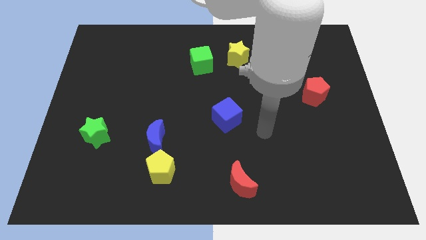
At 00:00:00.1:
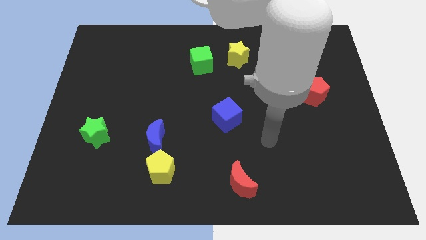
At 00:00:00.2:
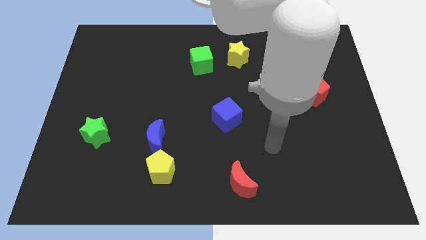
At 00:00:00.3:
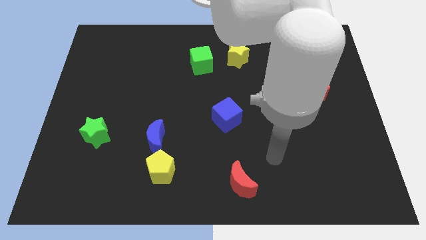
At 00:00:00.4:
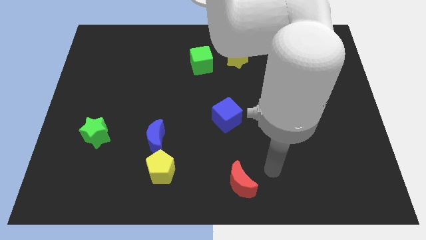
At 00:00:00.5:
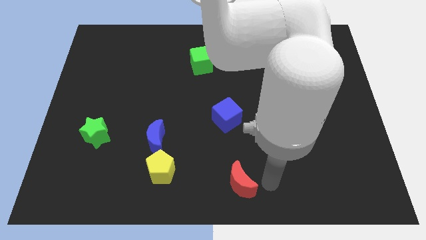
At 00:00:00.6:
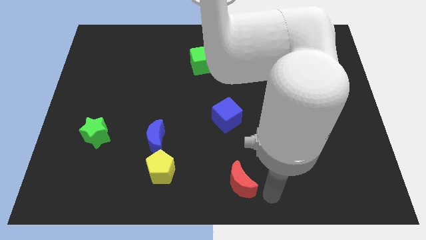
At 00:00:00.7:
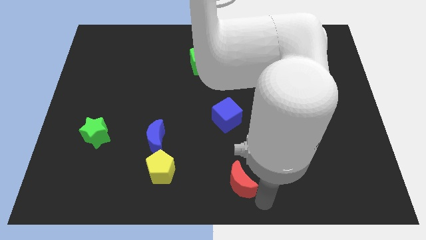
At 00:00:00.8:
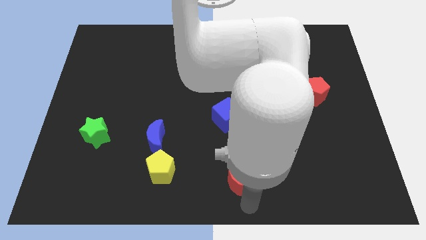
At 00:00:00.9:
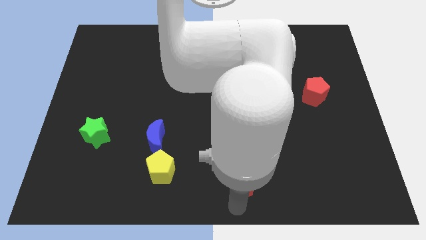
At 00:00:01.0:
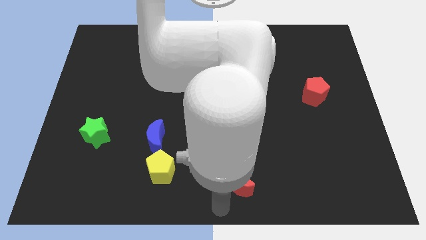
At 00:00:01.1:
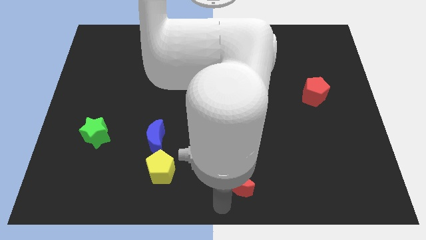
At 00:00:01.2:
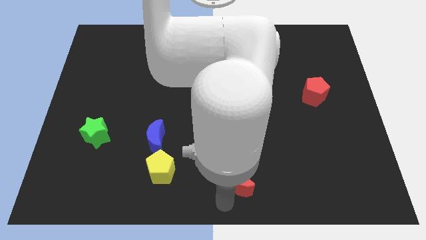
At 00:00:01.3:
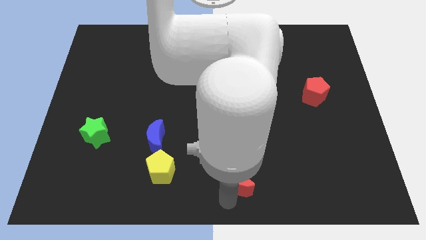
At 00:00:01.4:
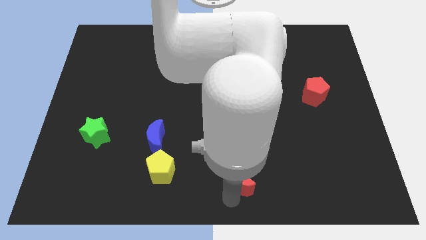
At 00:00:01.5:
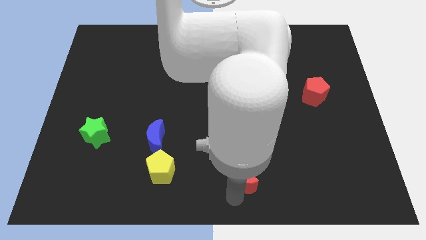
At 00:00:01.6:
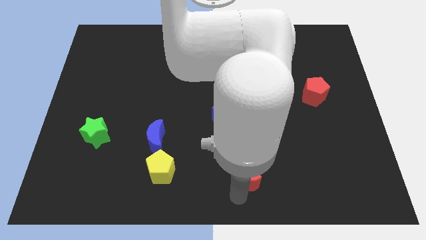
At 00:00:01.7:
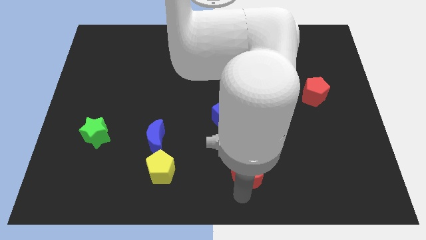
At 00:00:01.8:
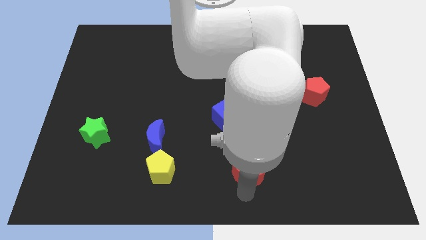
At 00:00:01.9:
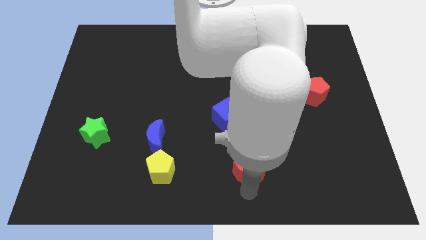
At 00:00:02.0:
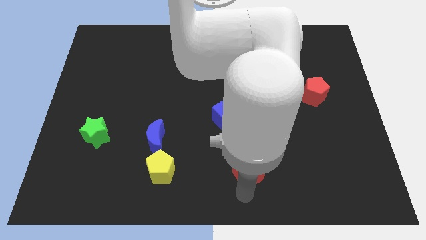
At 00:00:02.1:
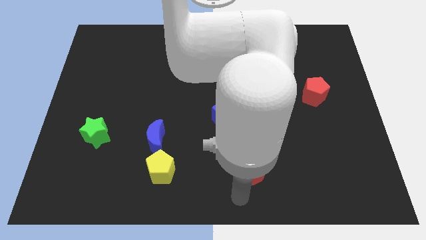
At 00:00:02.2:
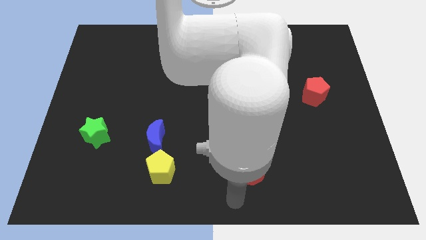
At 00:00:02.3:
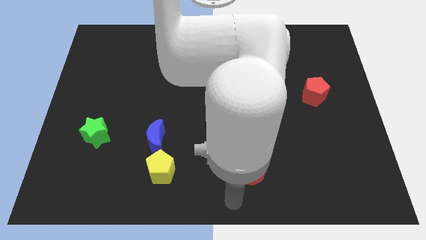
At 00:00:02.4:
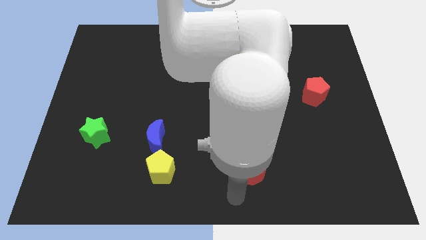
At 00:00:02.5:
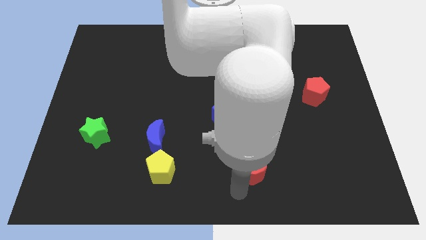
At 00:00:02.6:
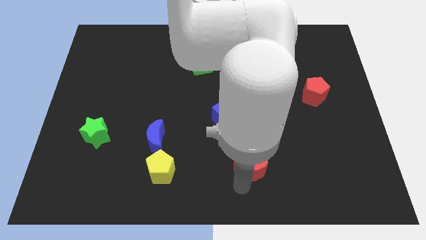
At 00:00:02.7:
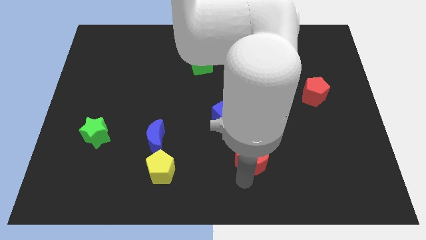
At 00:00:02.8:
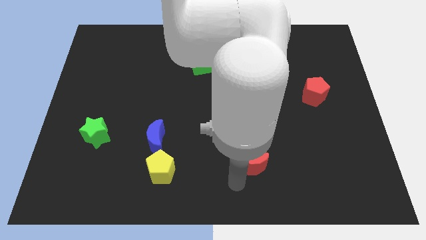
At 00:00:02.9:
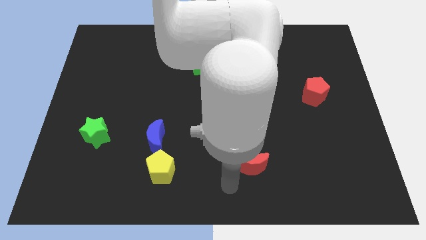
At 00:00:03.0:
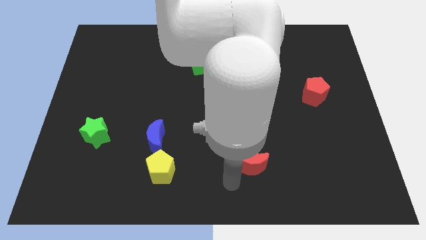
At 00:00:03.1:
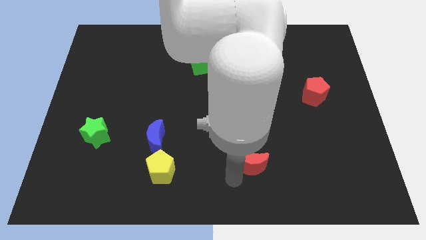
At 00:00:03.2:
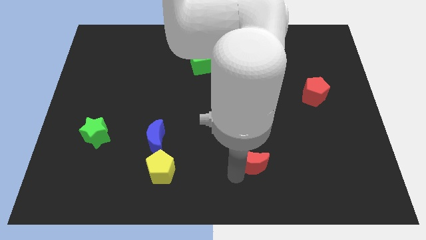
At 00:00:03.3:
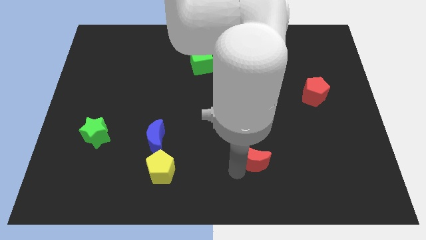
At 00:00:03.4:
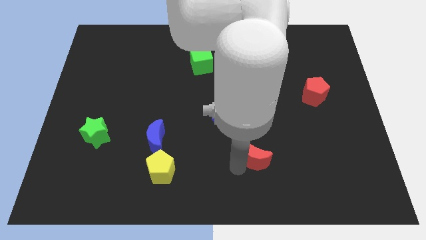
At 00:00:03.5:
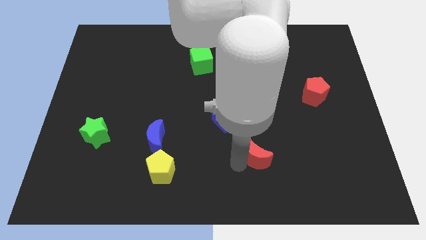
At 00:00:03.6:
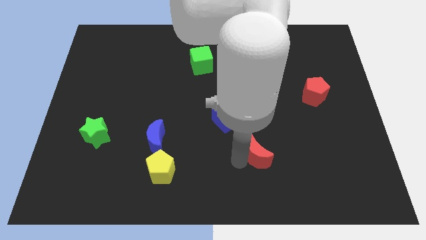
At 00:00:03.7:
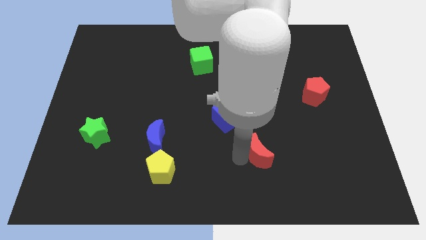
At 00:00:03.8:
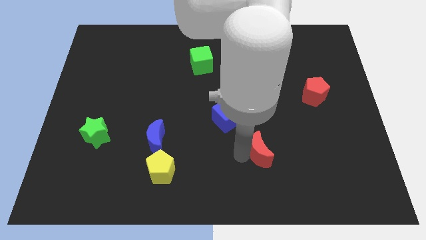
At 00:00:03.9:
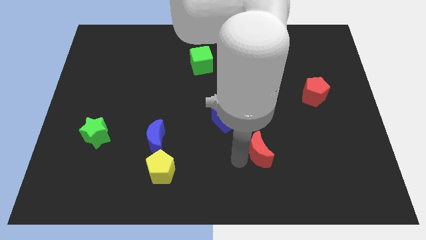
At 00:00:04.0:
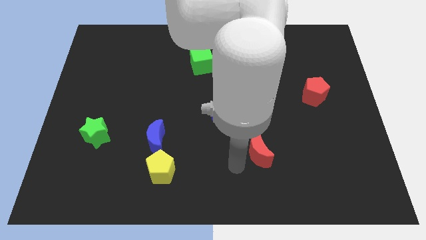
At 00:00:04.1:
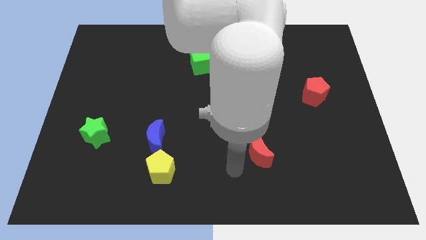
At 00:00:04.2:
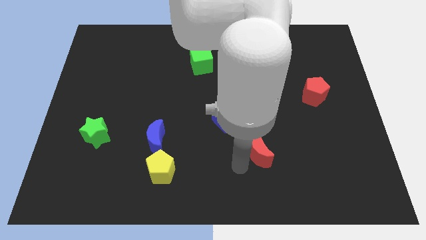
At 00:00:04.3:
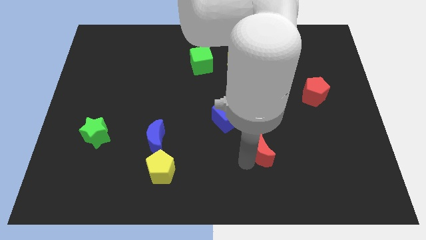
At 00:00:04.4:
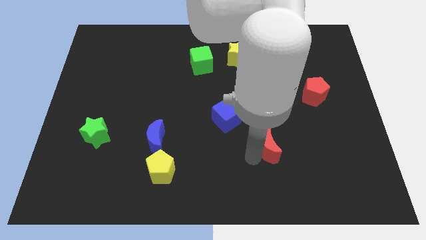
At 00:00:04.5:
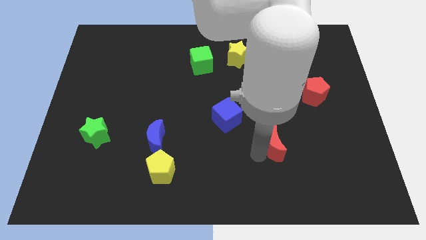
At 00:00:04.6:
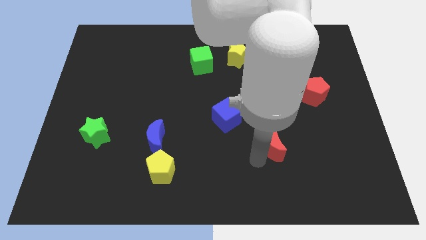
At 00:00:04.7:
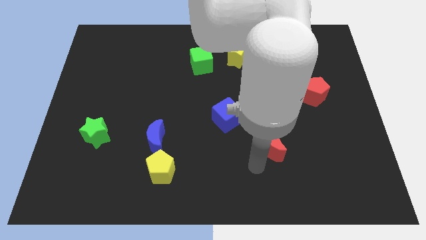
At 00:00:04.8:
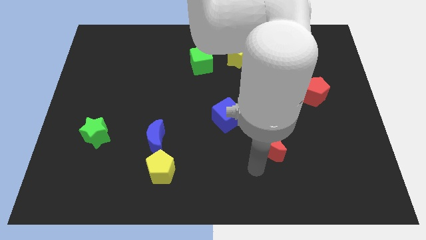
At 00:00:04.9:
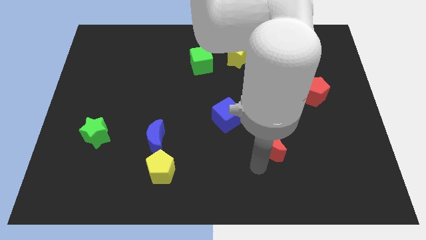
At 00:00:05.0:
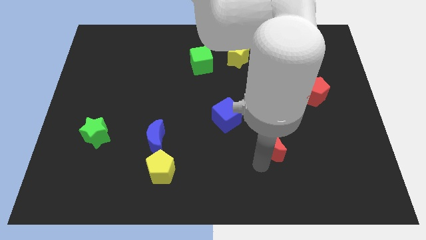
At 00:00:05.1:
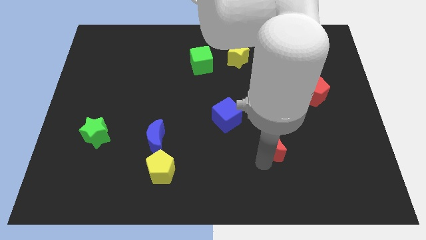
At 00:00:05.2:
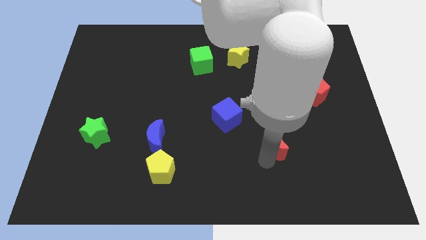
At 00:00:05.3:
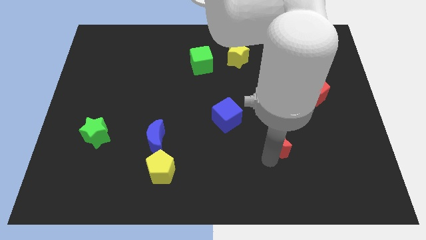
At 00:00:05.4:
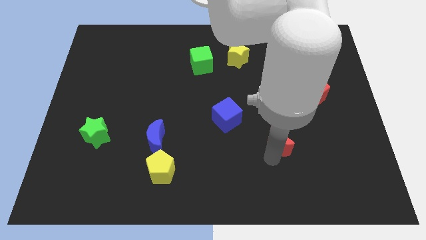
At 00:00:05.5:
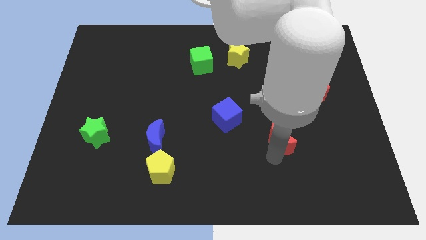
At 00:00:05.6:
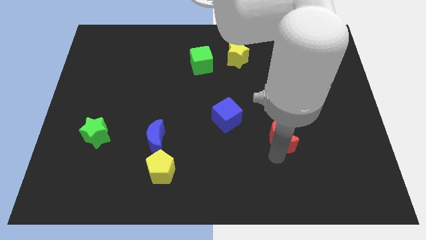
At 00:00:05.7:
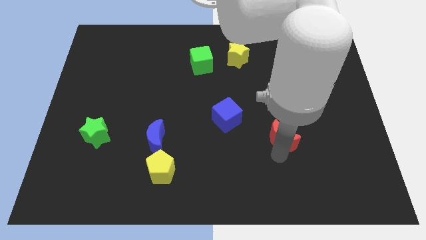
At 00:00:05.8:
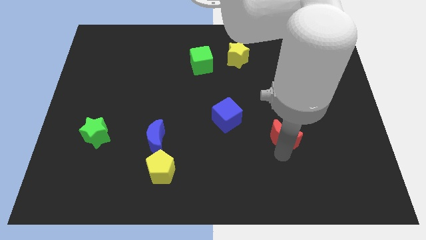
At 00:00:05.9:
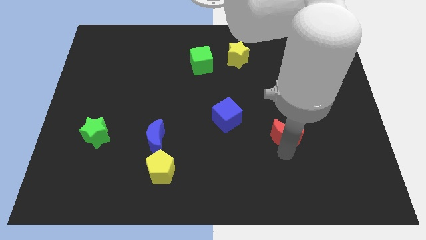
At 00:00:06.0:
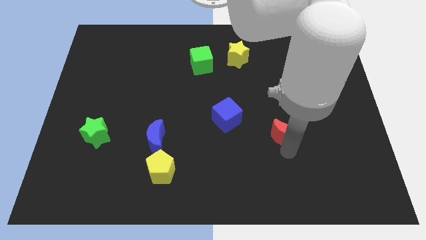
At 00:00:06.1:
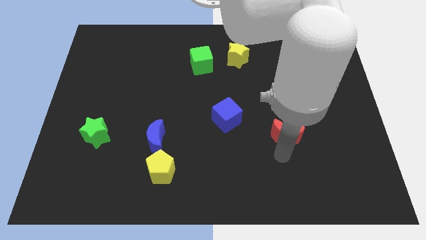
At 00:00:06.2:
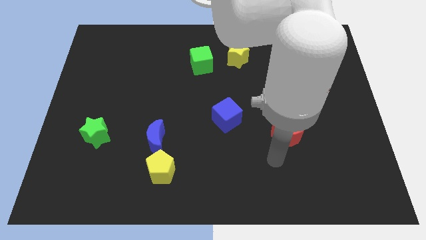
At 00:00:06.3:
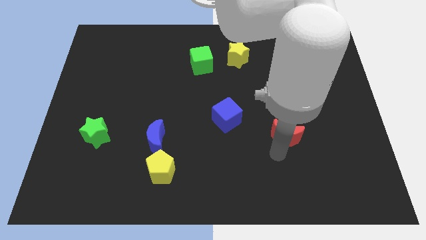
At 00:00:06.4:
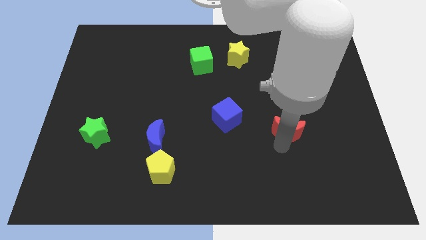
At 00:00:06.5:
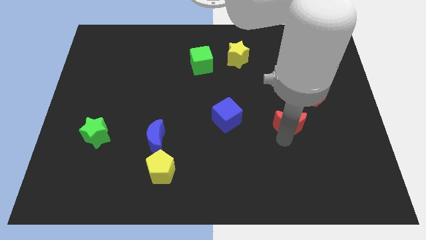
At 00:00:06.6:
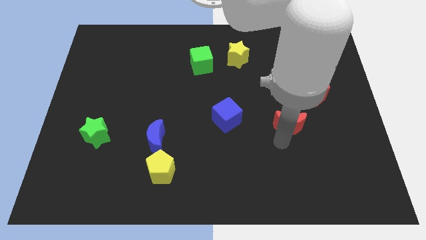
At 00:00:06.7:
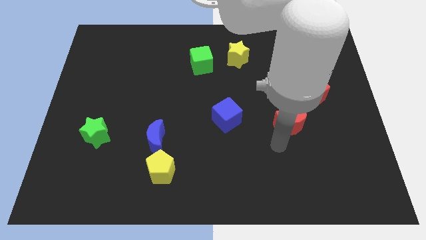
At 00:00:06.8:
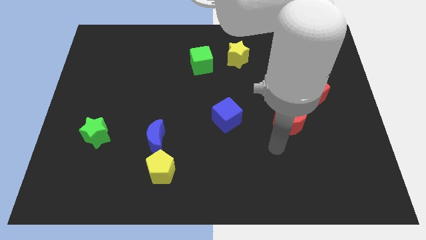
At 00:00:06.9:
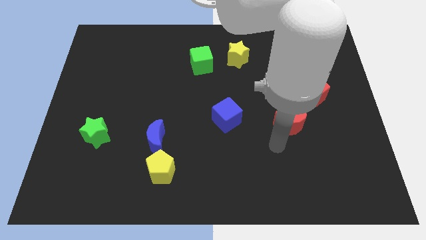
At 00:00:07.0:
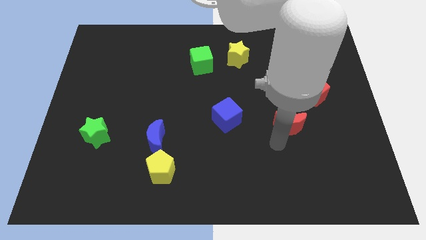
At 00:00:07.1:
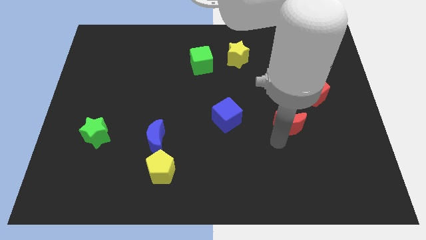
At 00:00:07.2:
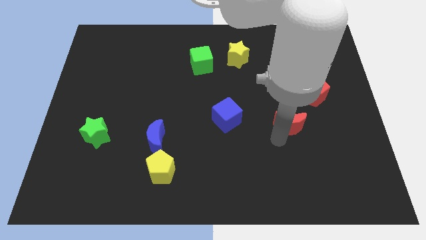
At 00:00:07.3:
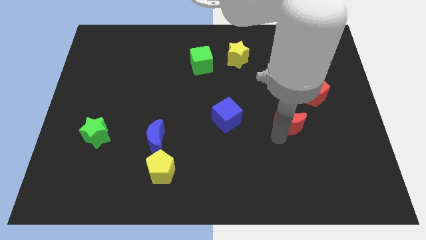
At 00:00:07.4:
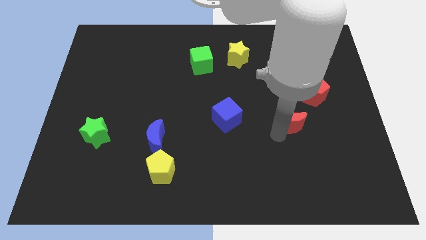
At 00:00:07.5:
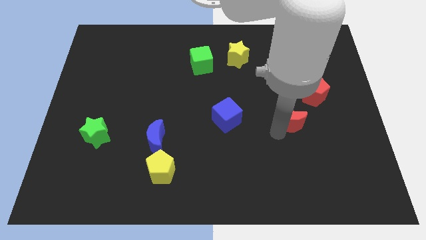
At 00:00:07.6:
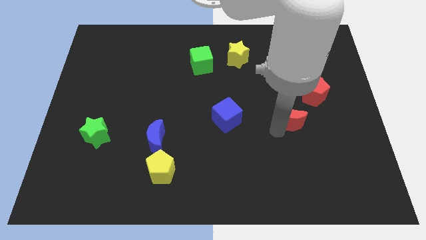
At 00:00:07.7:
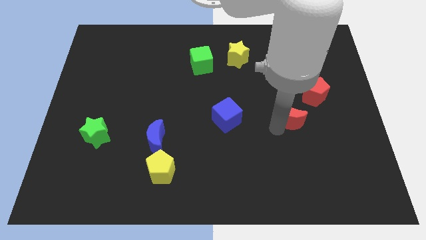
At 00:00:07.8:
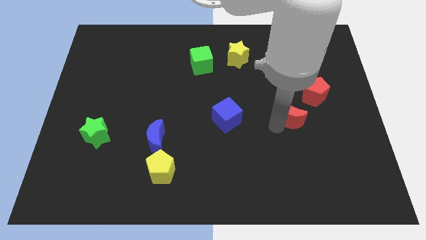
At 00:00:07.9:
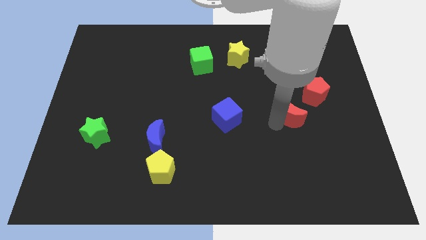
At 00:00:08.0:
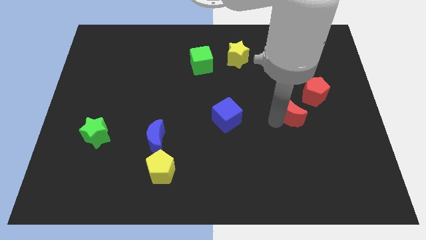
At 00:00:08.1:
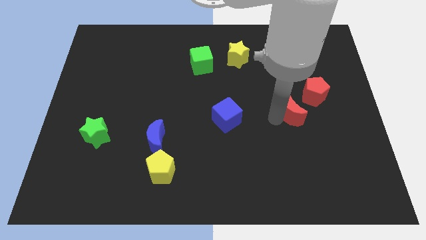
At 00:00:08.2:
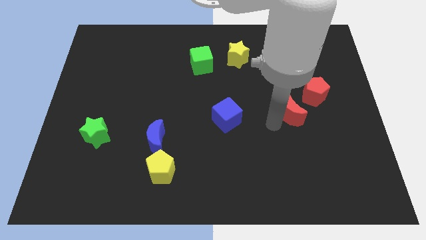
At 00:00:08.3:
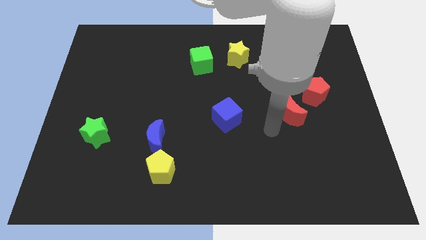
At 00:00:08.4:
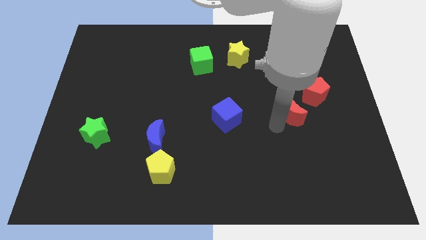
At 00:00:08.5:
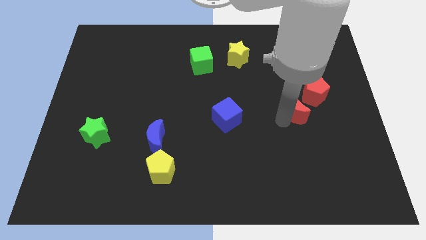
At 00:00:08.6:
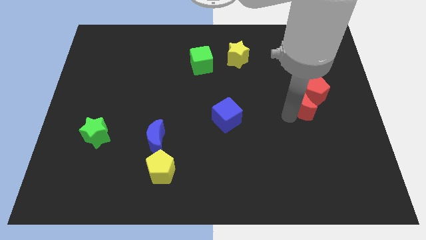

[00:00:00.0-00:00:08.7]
slide the red moon next to the red pentagon
